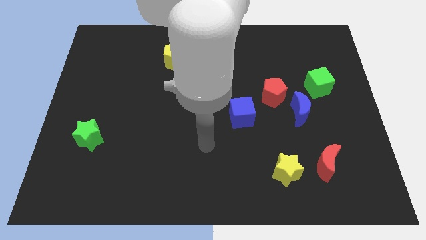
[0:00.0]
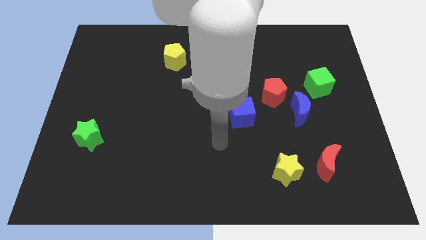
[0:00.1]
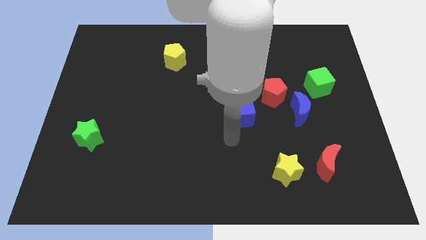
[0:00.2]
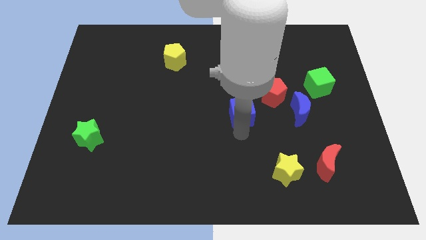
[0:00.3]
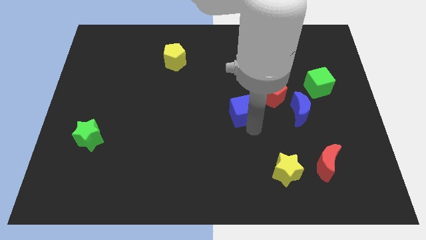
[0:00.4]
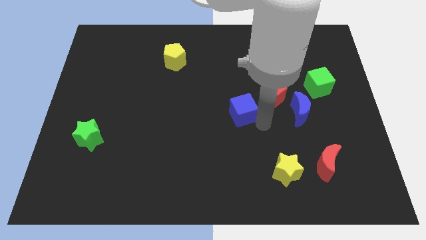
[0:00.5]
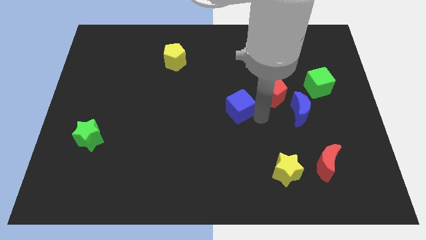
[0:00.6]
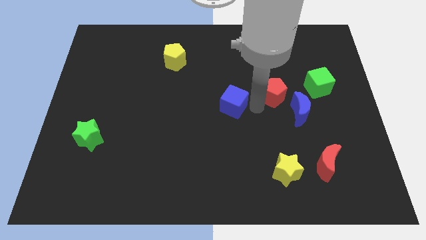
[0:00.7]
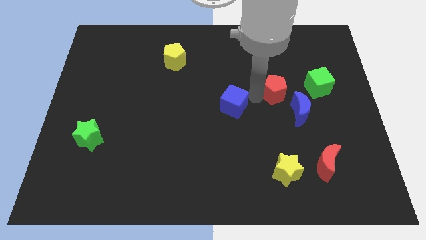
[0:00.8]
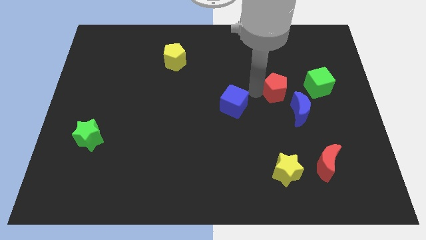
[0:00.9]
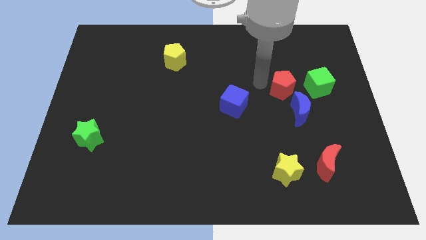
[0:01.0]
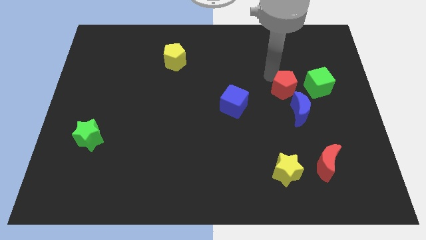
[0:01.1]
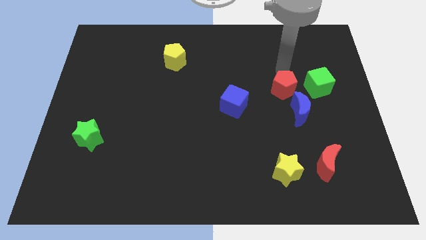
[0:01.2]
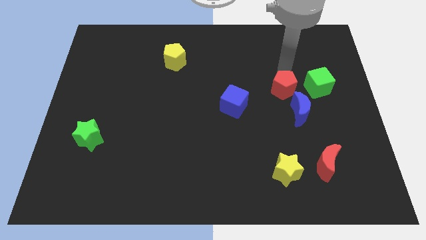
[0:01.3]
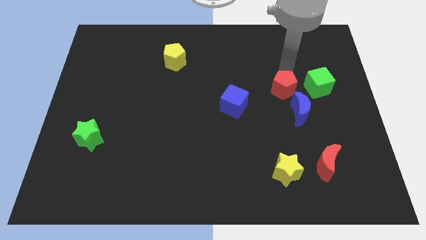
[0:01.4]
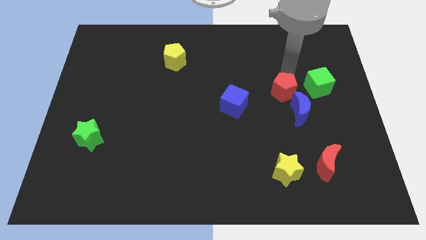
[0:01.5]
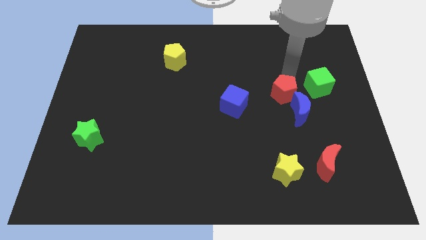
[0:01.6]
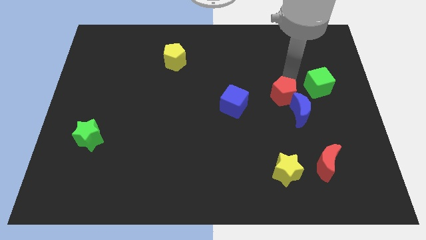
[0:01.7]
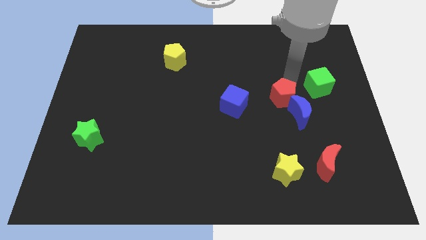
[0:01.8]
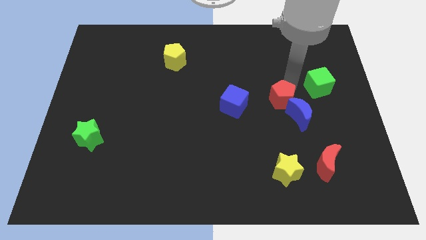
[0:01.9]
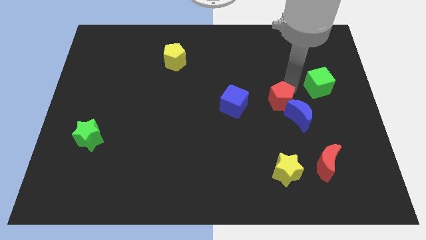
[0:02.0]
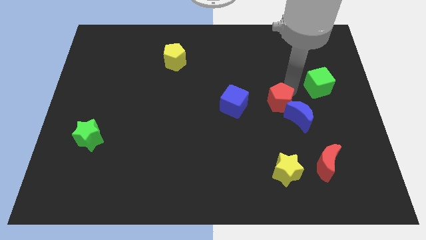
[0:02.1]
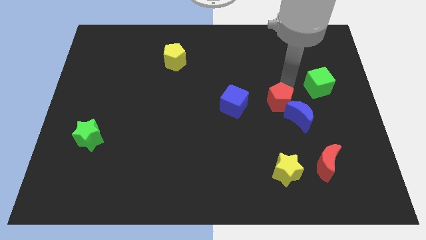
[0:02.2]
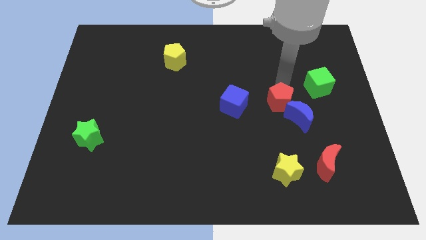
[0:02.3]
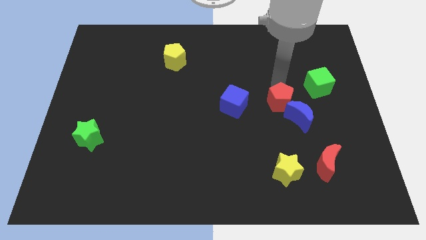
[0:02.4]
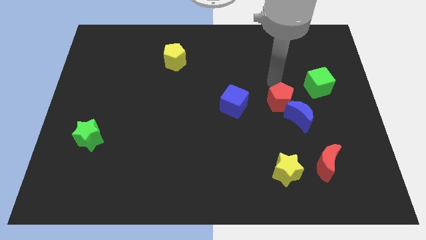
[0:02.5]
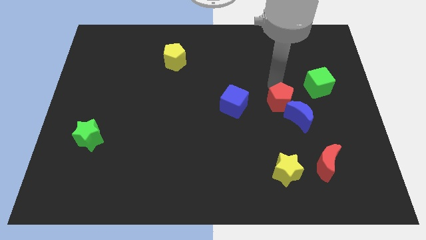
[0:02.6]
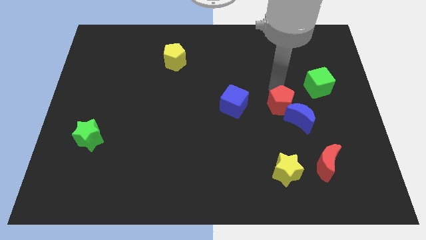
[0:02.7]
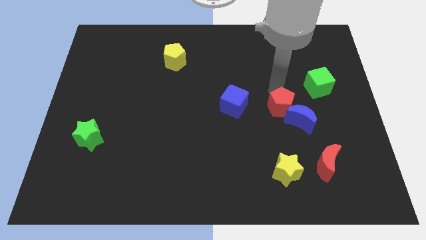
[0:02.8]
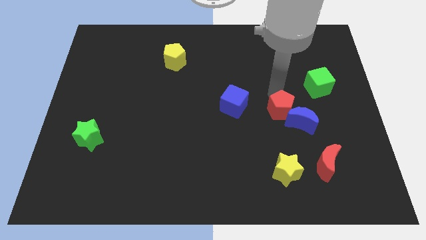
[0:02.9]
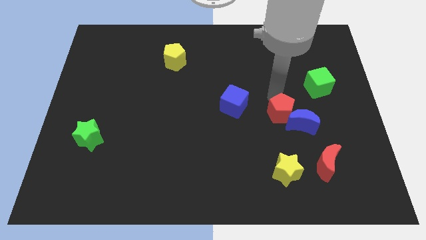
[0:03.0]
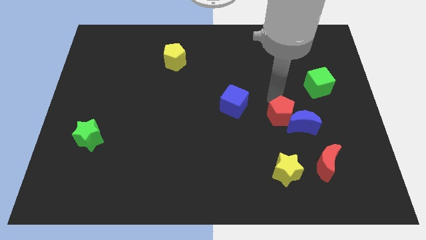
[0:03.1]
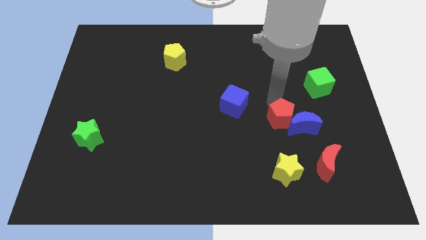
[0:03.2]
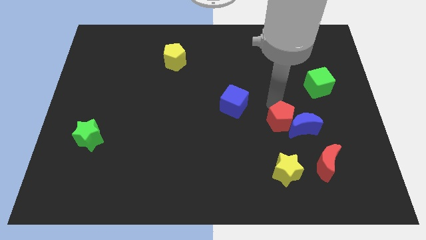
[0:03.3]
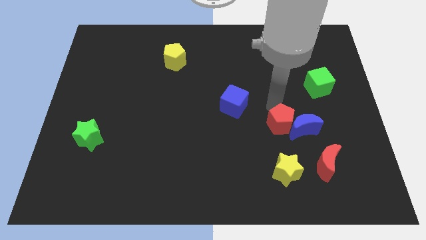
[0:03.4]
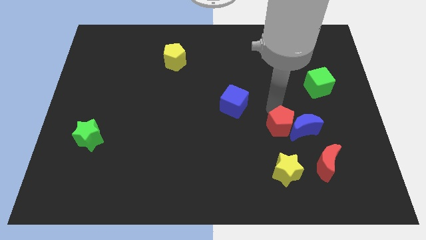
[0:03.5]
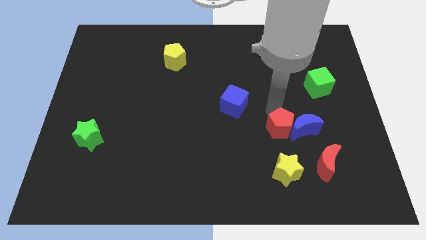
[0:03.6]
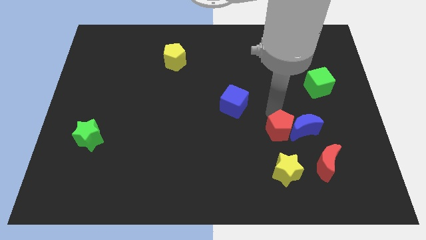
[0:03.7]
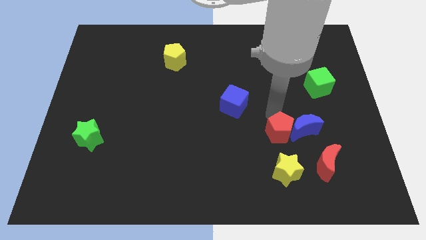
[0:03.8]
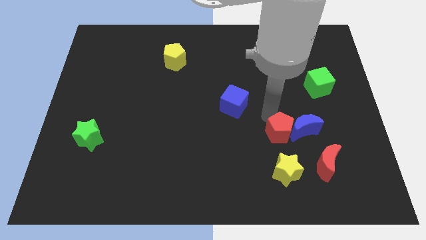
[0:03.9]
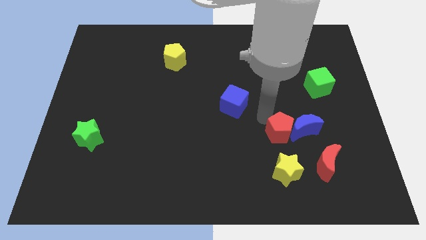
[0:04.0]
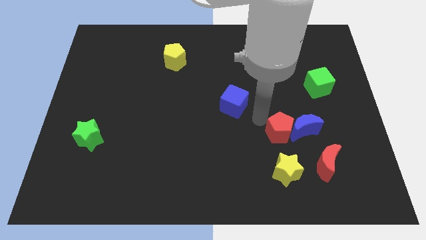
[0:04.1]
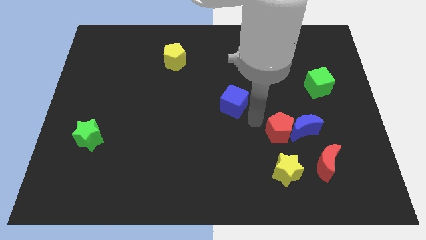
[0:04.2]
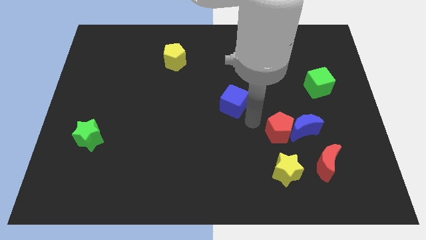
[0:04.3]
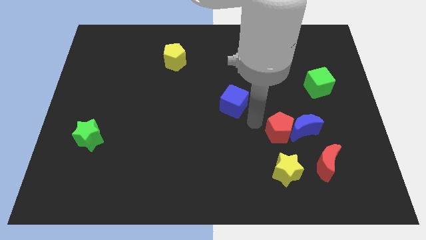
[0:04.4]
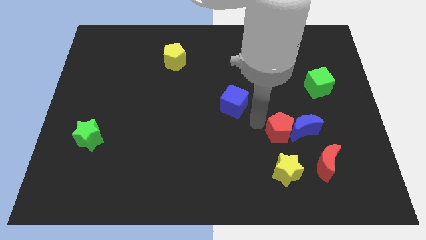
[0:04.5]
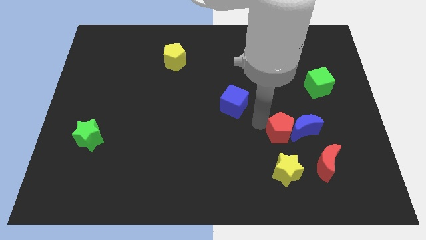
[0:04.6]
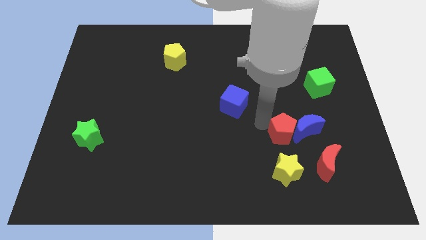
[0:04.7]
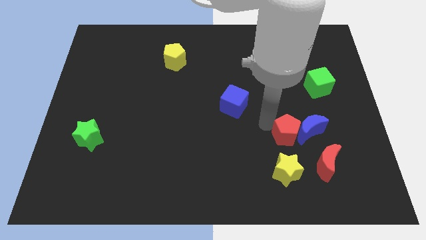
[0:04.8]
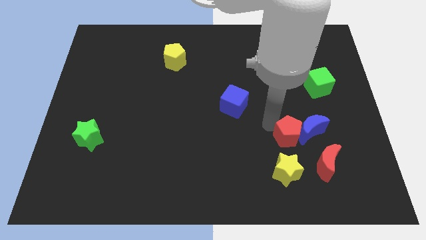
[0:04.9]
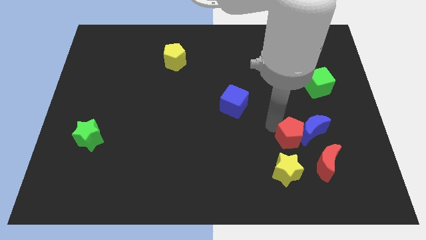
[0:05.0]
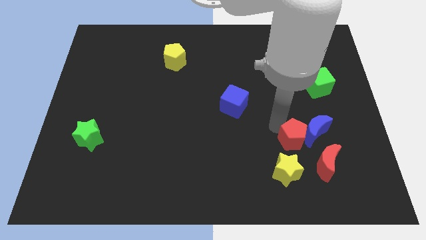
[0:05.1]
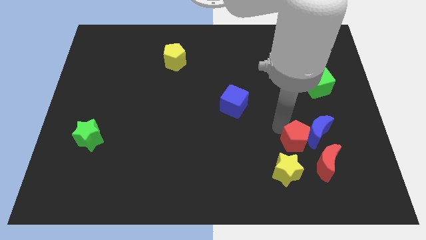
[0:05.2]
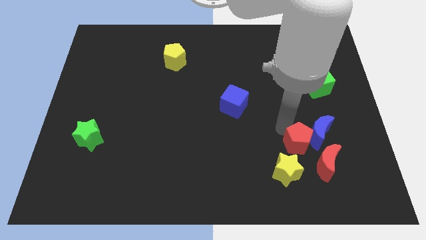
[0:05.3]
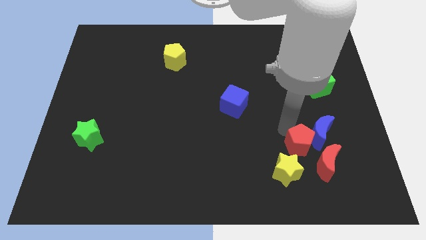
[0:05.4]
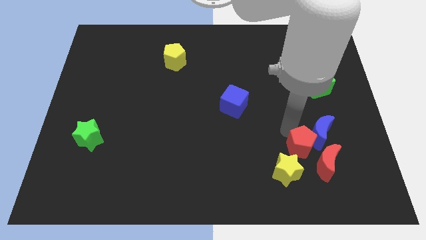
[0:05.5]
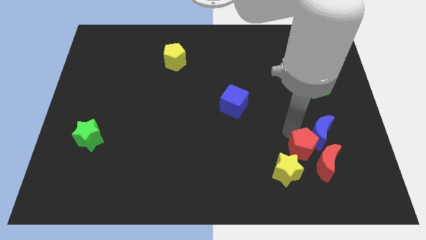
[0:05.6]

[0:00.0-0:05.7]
slide the red pentagon towards the red moon
